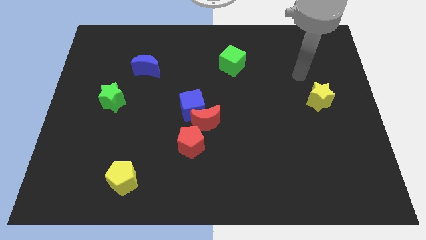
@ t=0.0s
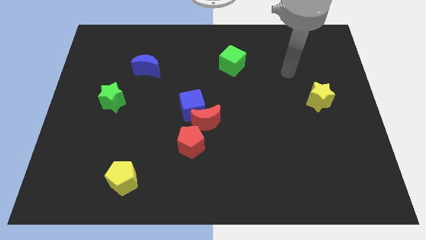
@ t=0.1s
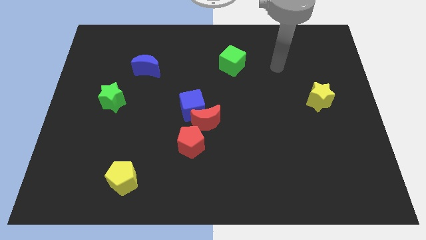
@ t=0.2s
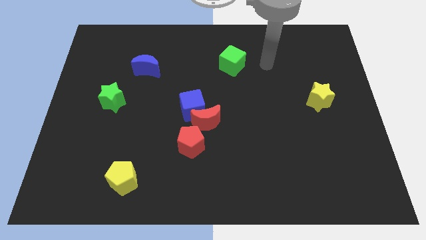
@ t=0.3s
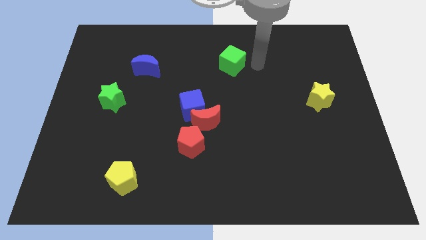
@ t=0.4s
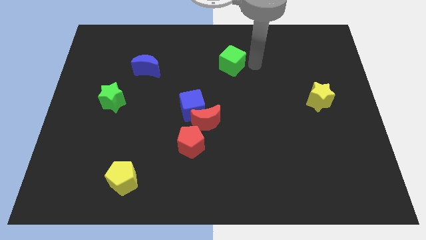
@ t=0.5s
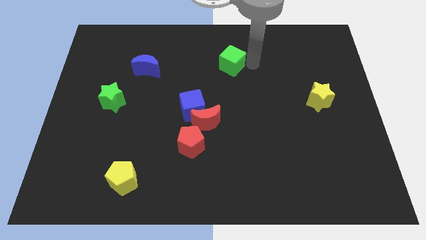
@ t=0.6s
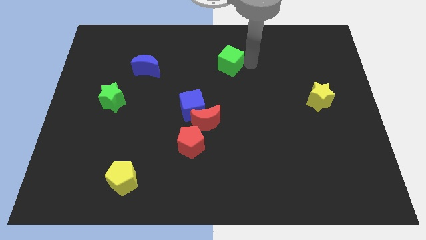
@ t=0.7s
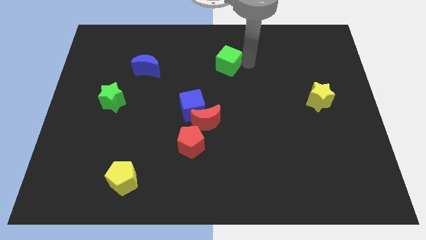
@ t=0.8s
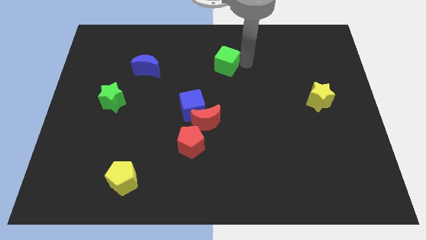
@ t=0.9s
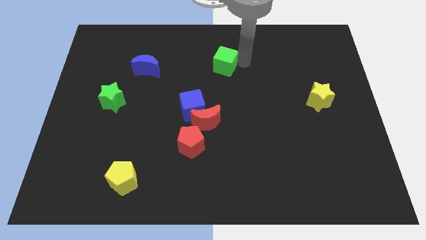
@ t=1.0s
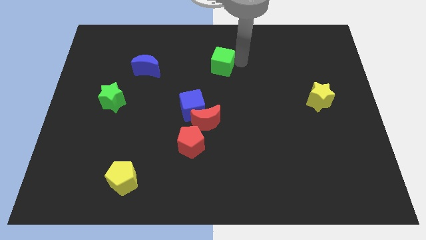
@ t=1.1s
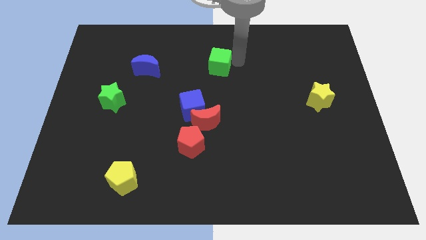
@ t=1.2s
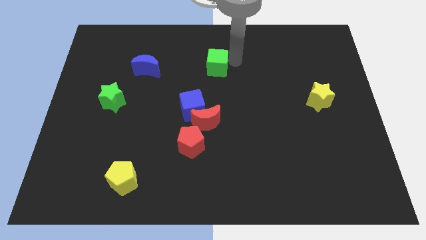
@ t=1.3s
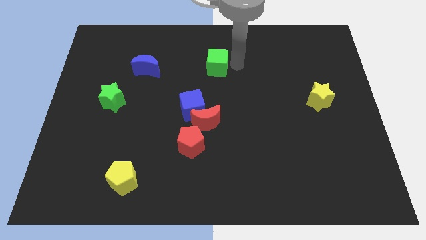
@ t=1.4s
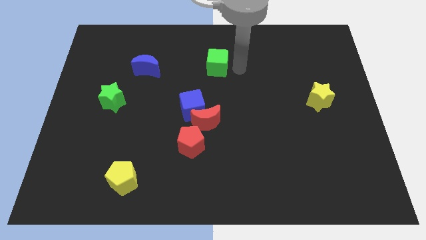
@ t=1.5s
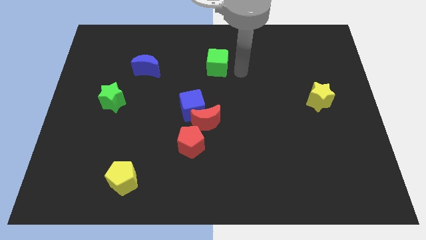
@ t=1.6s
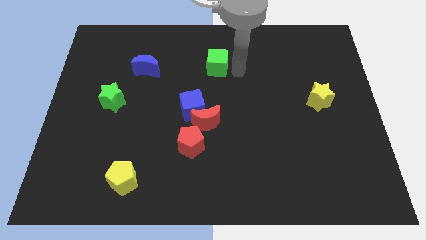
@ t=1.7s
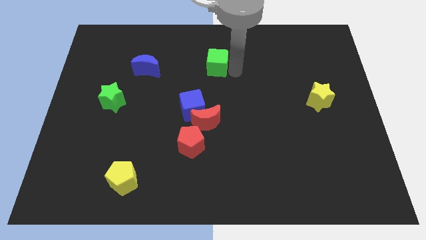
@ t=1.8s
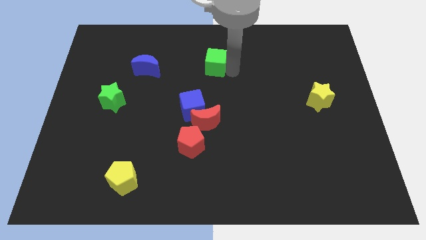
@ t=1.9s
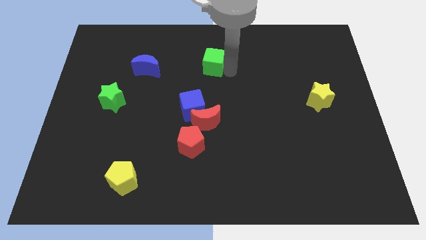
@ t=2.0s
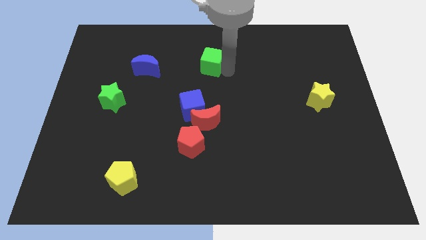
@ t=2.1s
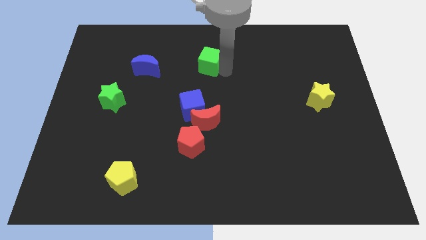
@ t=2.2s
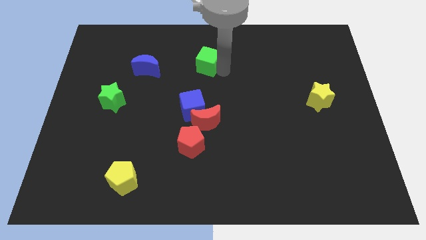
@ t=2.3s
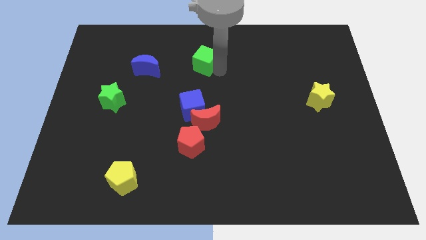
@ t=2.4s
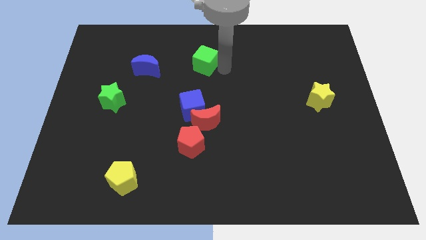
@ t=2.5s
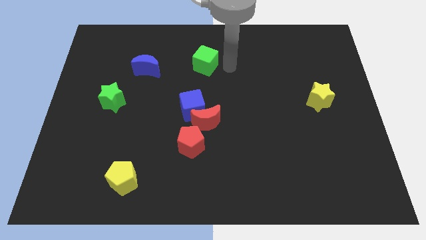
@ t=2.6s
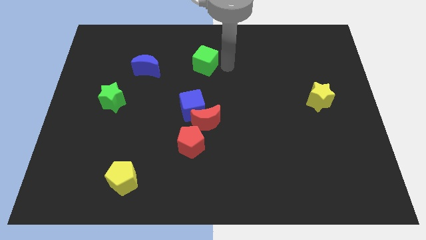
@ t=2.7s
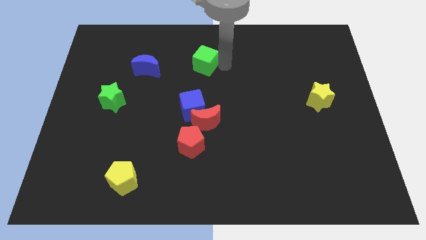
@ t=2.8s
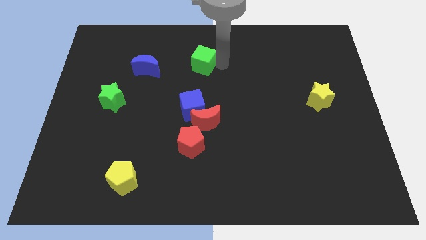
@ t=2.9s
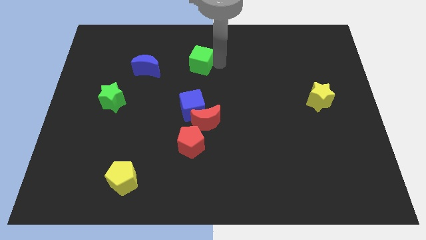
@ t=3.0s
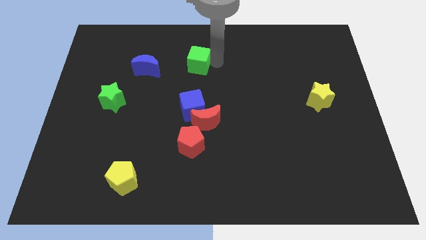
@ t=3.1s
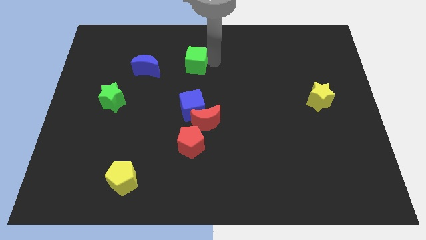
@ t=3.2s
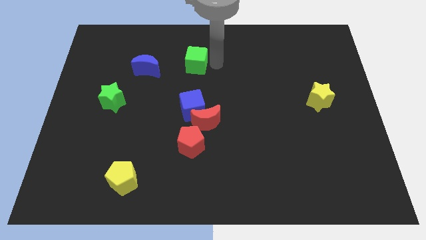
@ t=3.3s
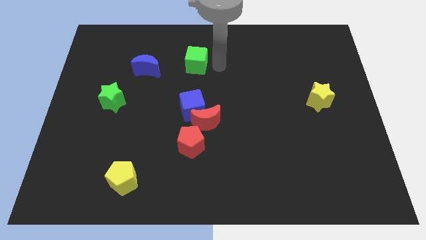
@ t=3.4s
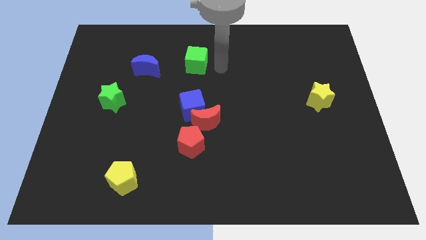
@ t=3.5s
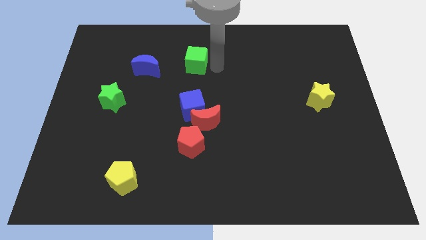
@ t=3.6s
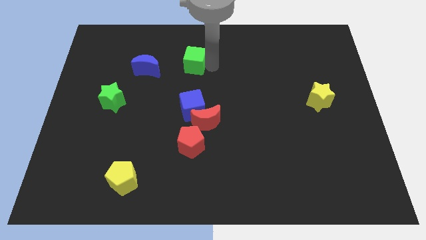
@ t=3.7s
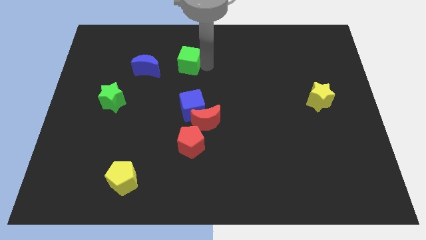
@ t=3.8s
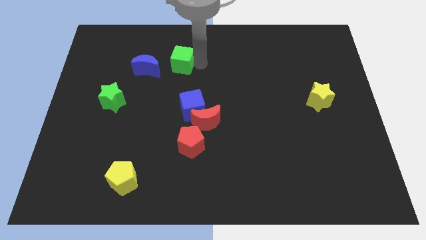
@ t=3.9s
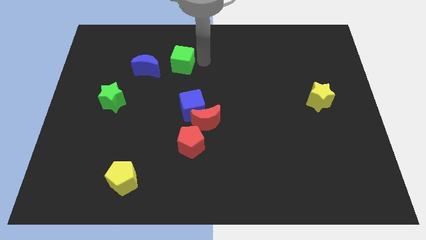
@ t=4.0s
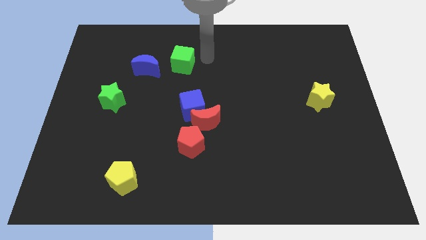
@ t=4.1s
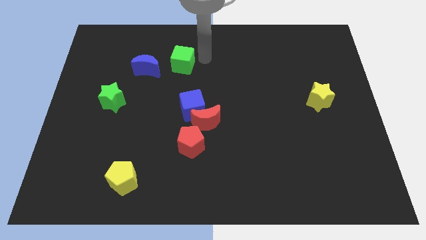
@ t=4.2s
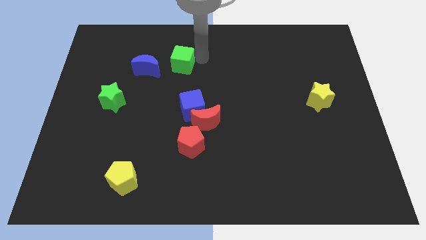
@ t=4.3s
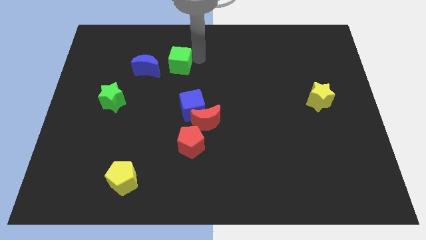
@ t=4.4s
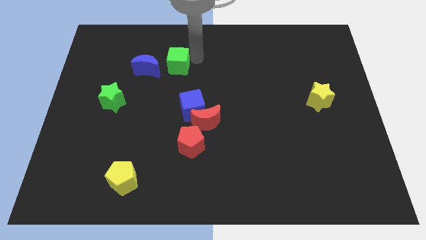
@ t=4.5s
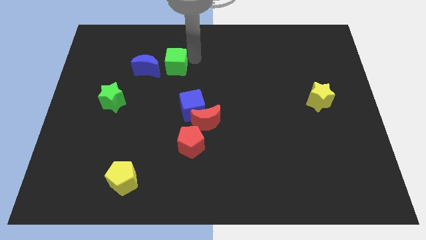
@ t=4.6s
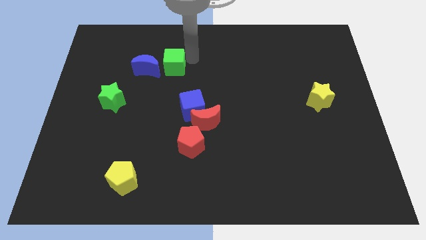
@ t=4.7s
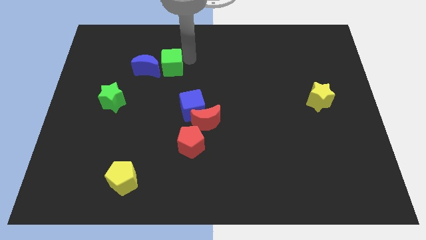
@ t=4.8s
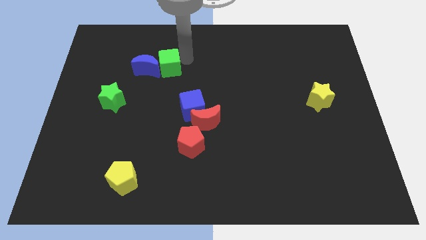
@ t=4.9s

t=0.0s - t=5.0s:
put the green cube towards the blue moon

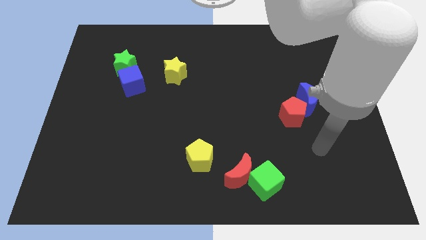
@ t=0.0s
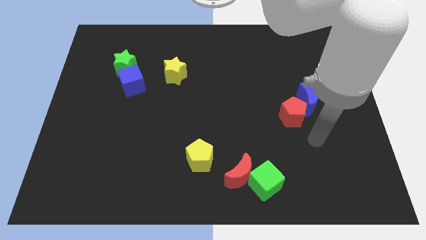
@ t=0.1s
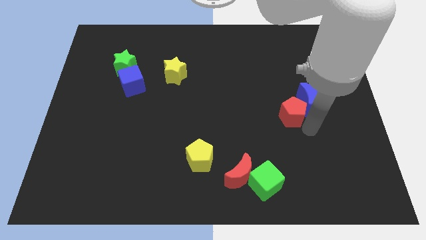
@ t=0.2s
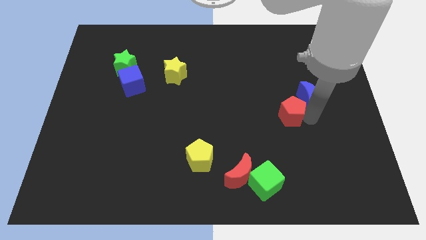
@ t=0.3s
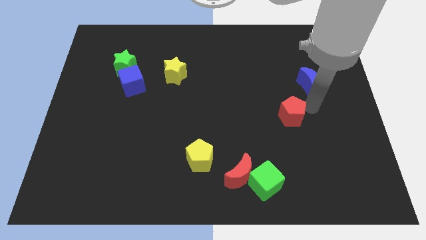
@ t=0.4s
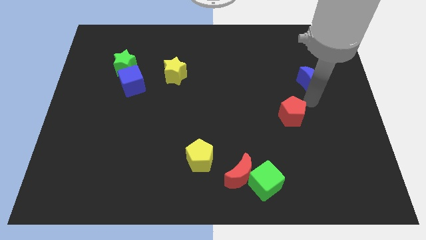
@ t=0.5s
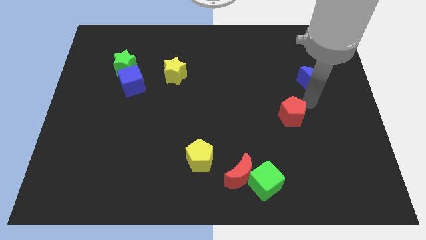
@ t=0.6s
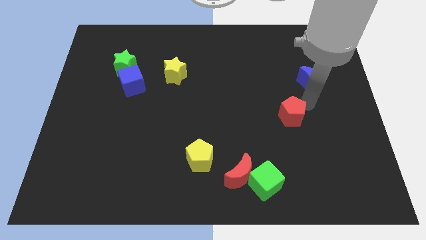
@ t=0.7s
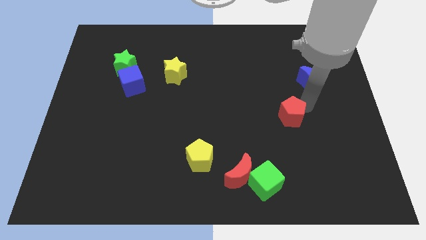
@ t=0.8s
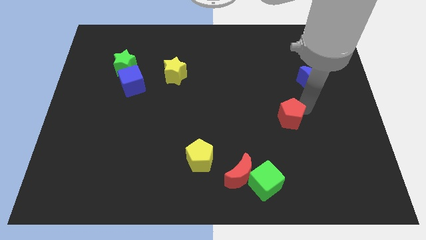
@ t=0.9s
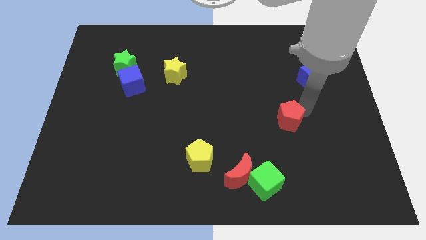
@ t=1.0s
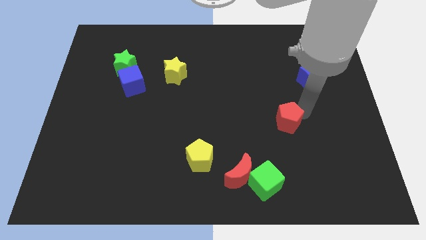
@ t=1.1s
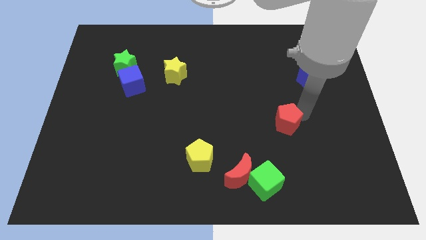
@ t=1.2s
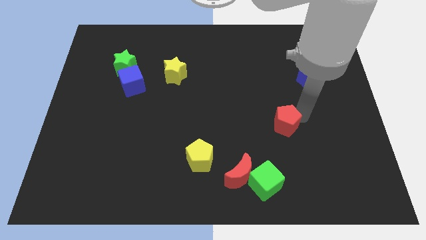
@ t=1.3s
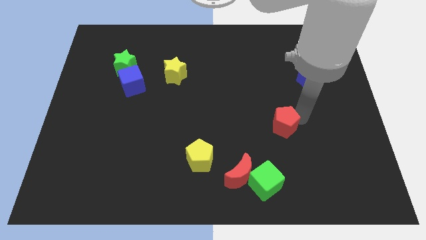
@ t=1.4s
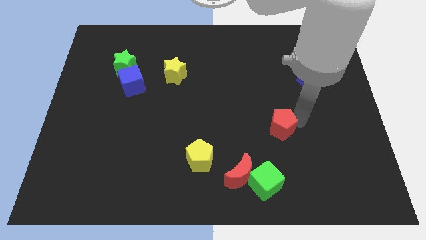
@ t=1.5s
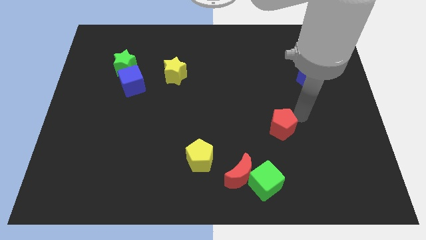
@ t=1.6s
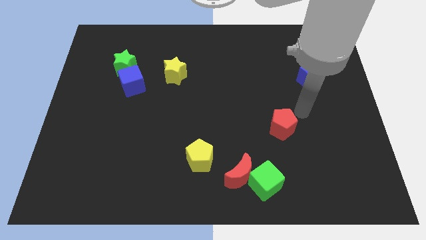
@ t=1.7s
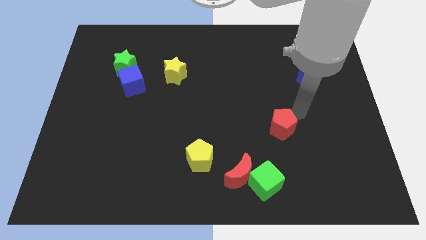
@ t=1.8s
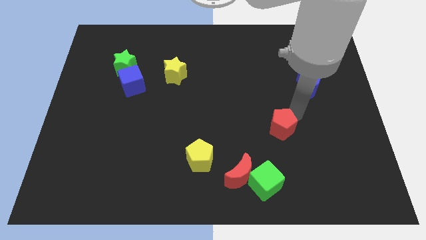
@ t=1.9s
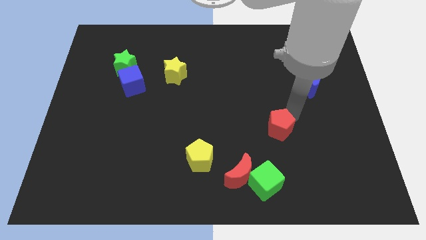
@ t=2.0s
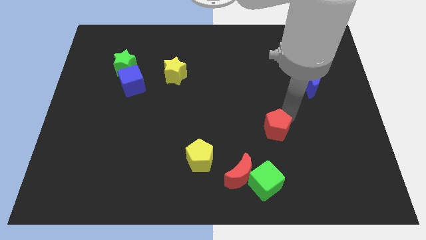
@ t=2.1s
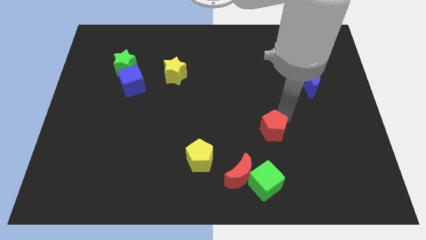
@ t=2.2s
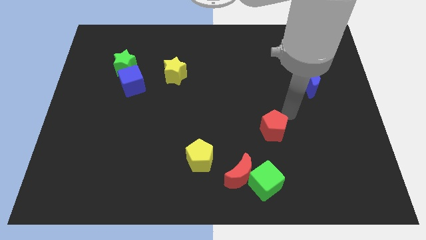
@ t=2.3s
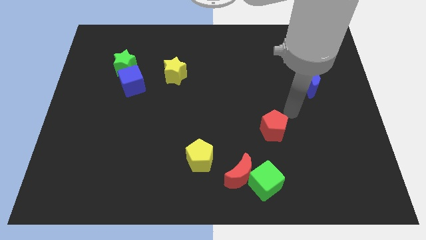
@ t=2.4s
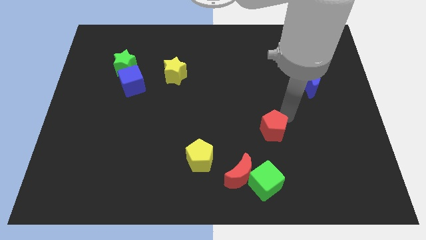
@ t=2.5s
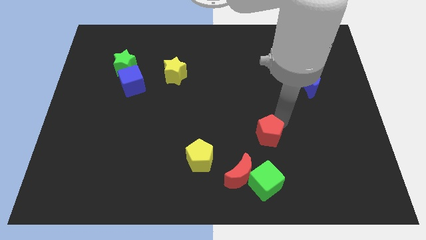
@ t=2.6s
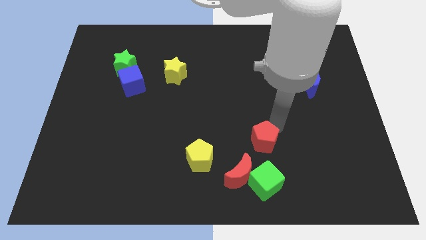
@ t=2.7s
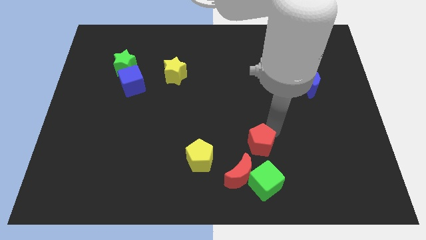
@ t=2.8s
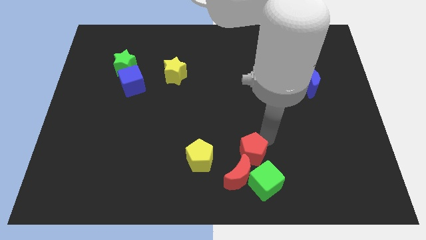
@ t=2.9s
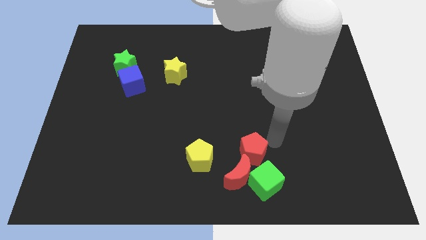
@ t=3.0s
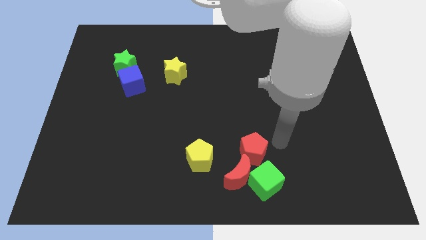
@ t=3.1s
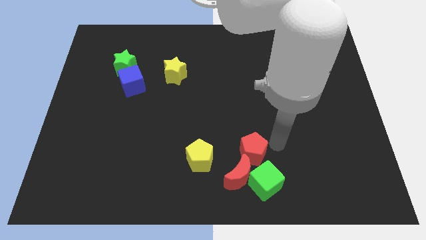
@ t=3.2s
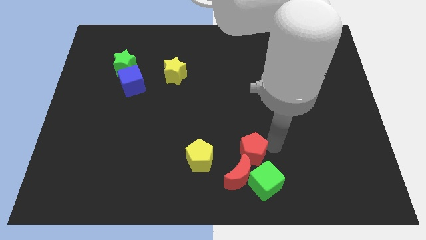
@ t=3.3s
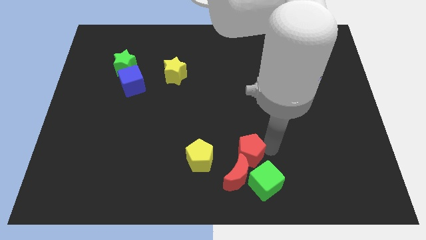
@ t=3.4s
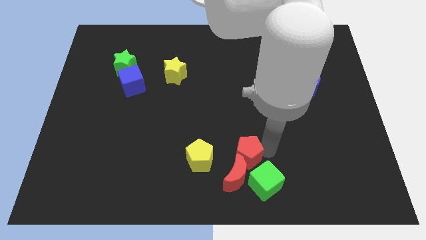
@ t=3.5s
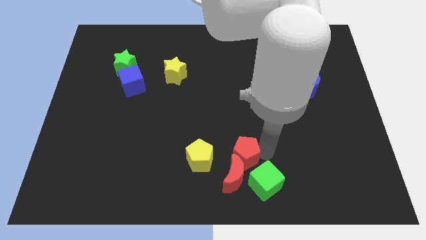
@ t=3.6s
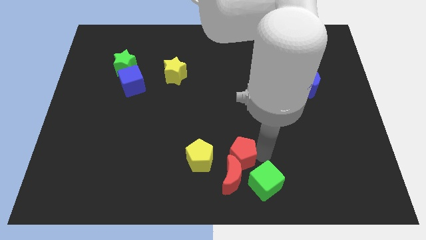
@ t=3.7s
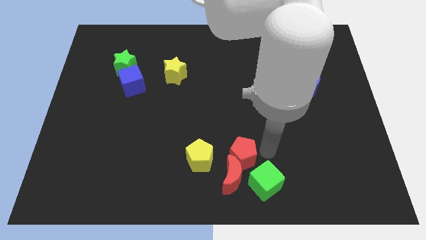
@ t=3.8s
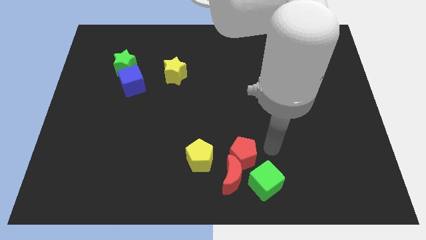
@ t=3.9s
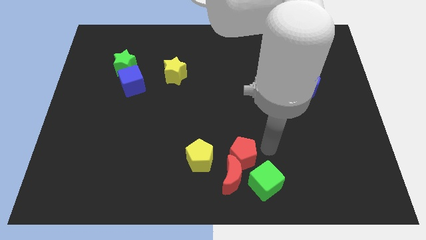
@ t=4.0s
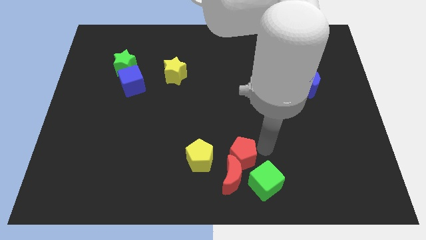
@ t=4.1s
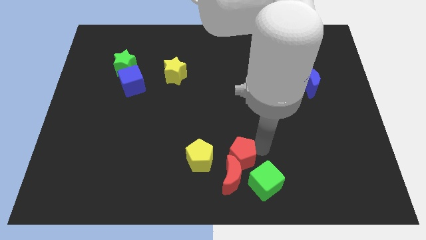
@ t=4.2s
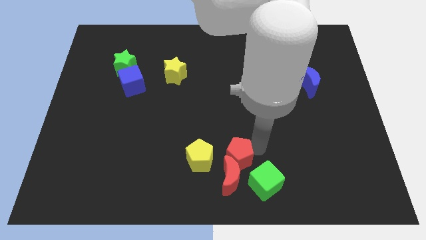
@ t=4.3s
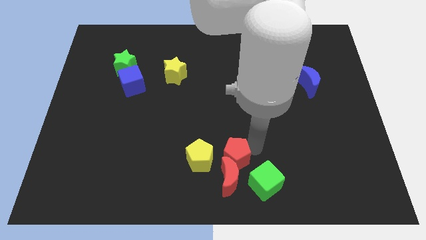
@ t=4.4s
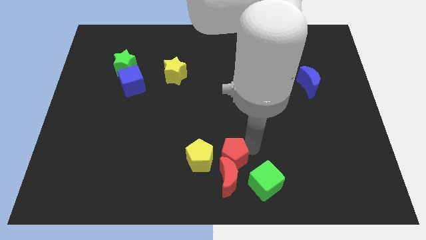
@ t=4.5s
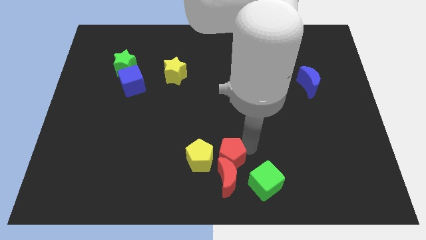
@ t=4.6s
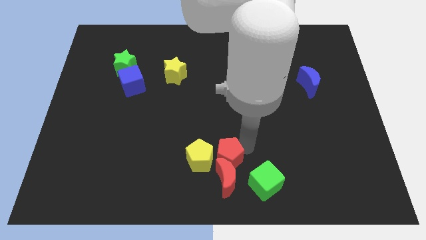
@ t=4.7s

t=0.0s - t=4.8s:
slide the red pentagon towards the yellow pentagon
